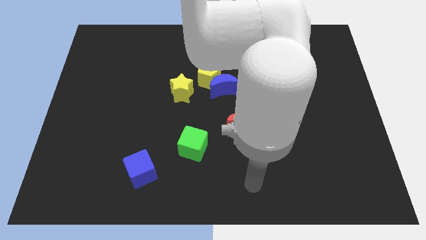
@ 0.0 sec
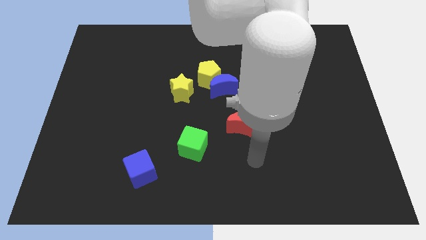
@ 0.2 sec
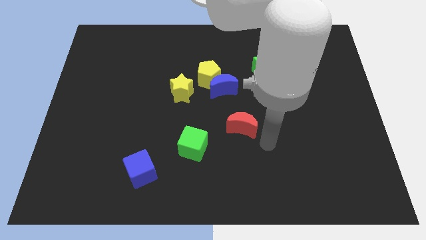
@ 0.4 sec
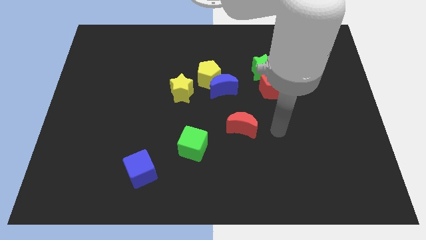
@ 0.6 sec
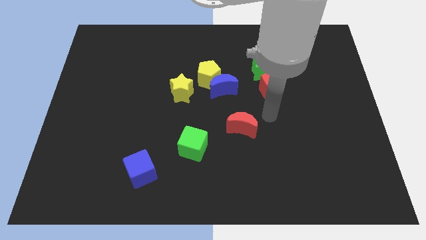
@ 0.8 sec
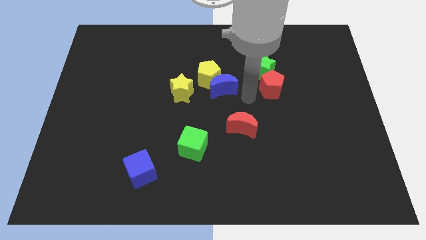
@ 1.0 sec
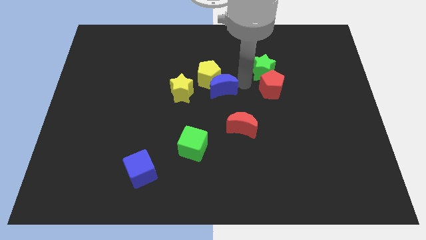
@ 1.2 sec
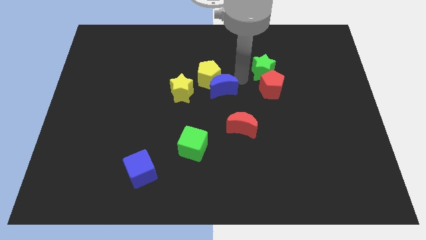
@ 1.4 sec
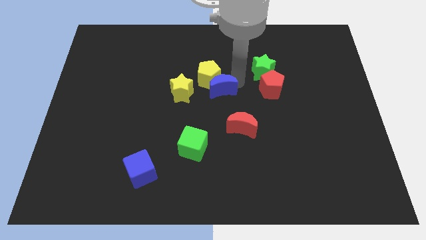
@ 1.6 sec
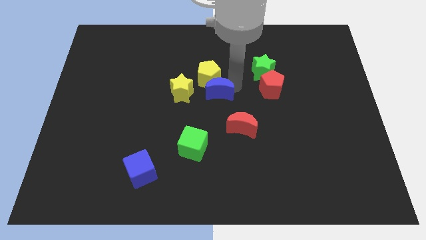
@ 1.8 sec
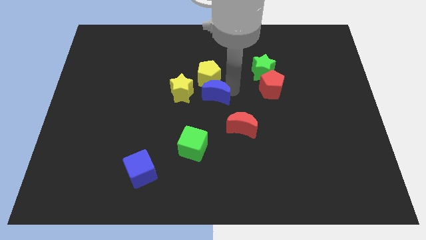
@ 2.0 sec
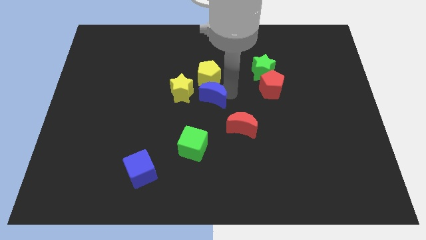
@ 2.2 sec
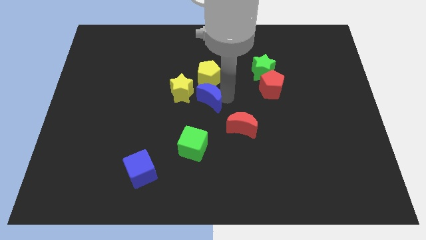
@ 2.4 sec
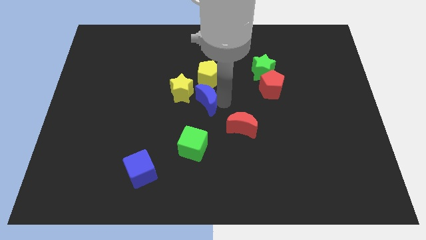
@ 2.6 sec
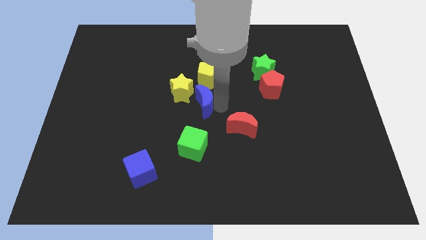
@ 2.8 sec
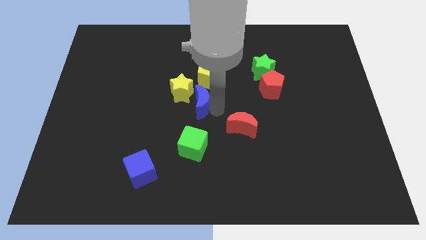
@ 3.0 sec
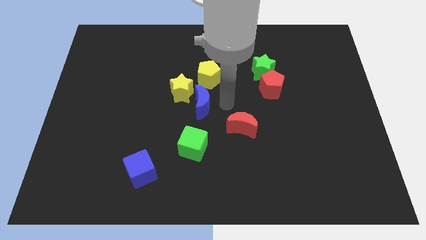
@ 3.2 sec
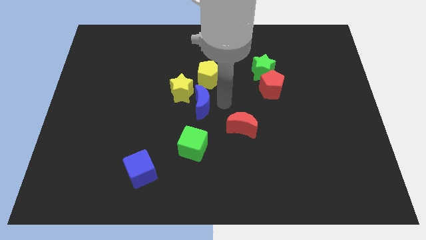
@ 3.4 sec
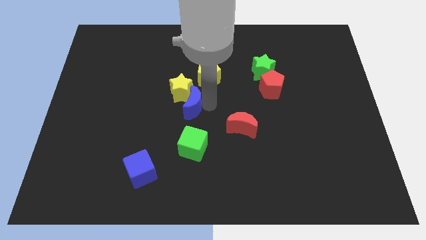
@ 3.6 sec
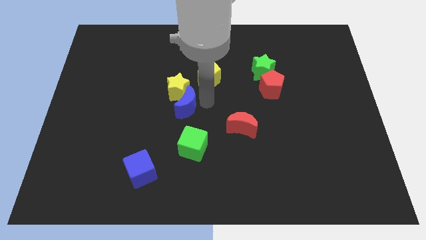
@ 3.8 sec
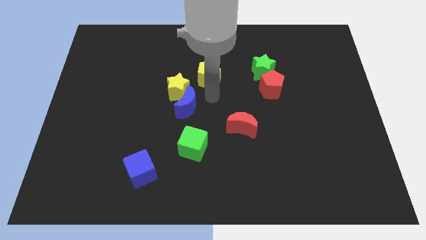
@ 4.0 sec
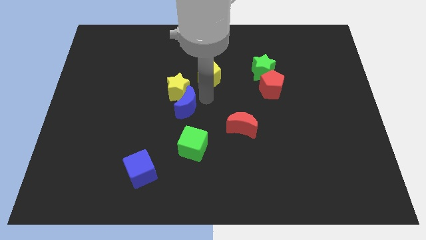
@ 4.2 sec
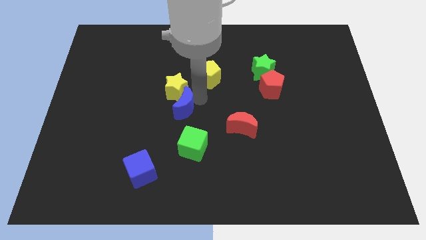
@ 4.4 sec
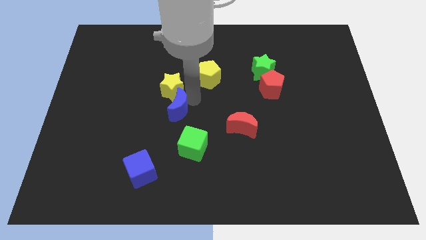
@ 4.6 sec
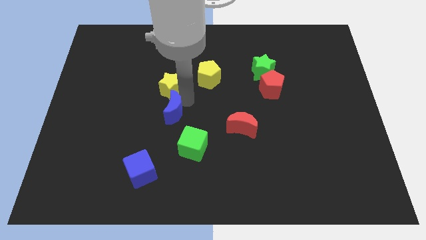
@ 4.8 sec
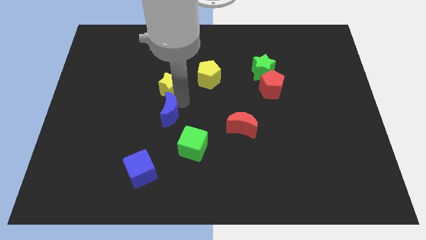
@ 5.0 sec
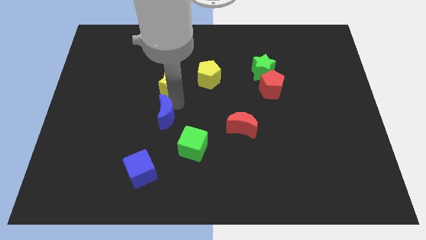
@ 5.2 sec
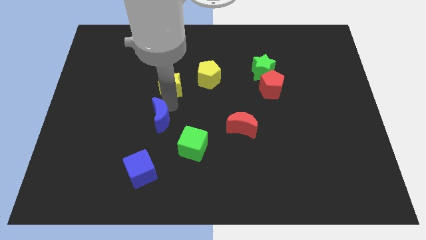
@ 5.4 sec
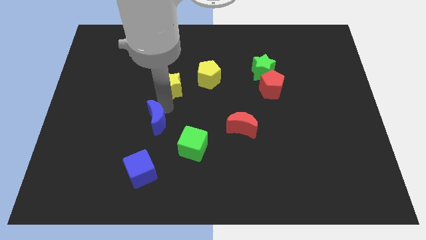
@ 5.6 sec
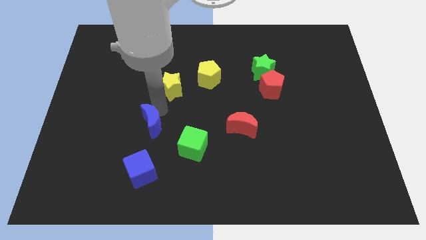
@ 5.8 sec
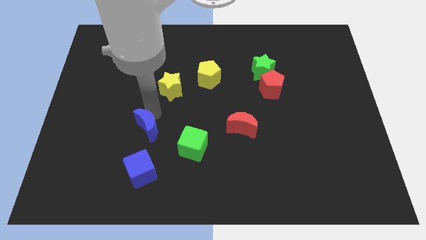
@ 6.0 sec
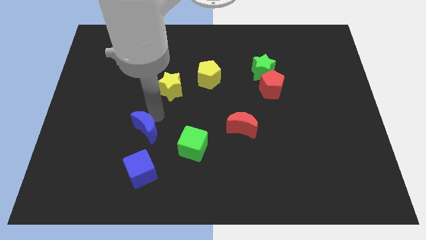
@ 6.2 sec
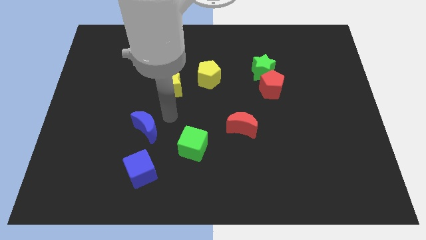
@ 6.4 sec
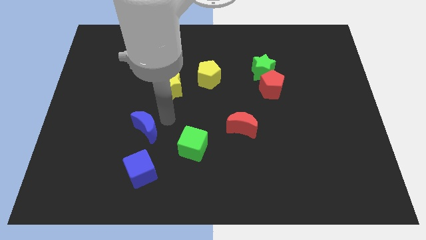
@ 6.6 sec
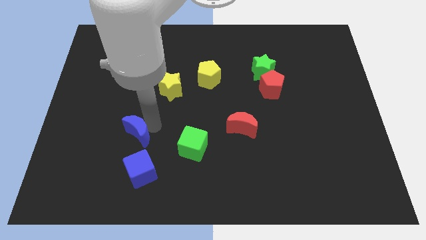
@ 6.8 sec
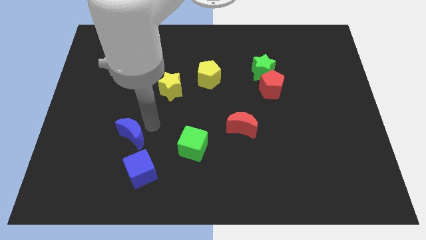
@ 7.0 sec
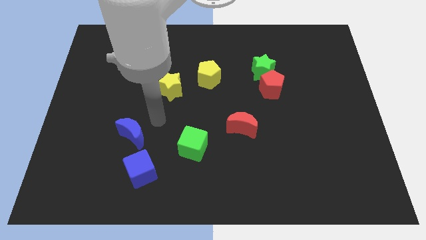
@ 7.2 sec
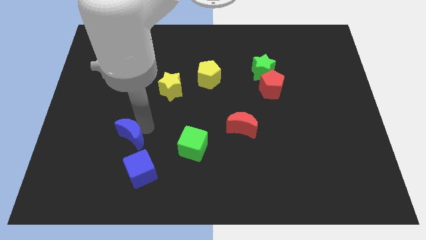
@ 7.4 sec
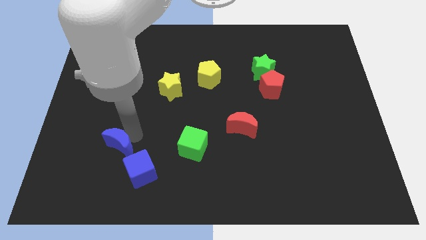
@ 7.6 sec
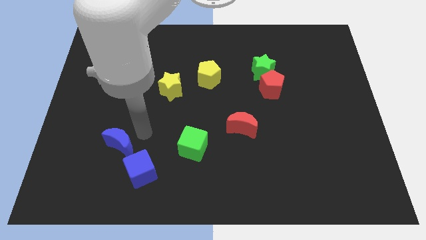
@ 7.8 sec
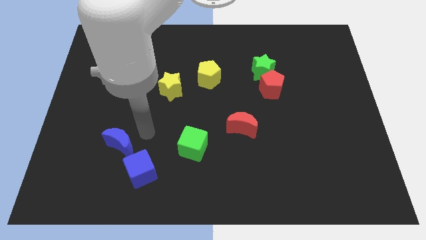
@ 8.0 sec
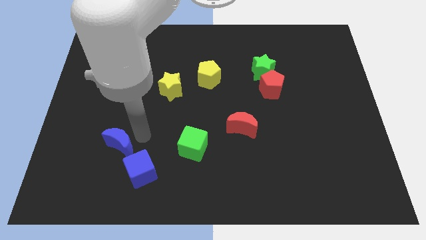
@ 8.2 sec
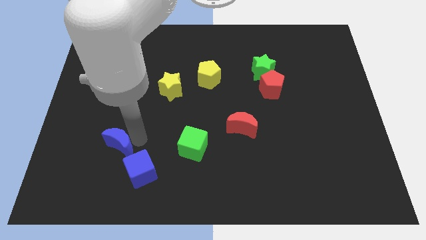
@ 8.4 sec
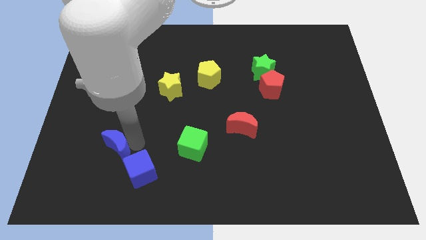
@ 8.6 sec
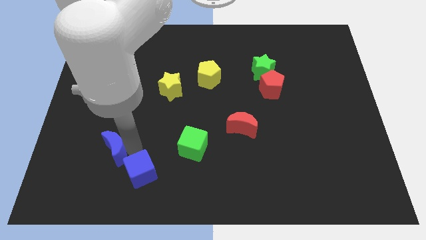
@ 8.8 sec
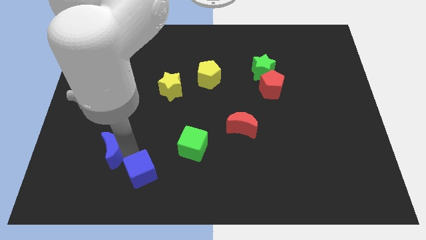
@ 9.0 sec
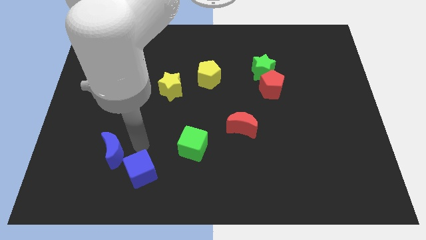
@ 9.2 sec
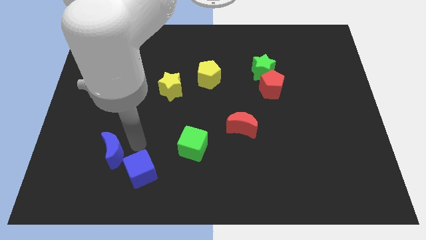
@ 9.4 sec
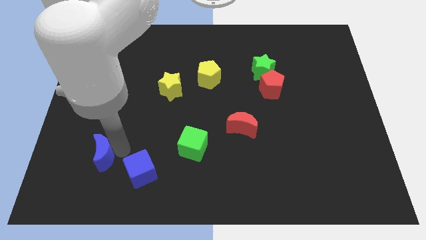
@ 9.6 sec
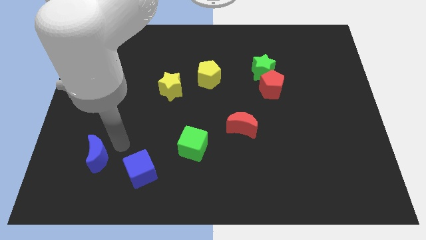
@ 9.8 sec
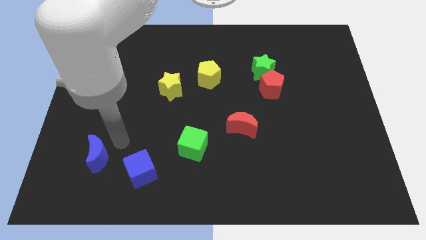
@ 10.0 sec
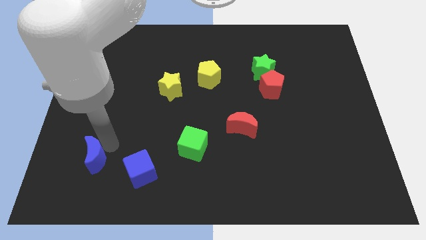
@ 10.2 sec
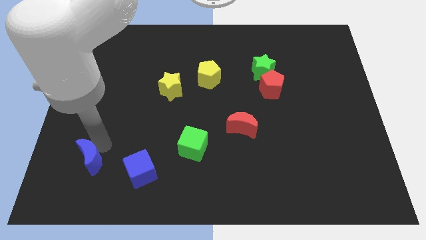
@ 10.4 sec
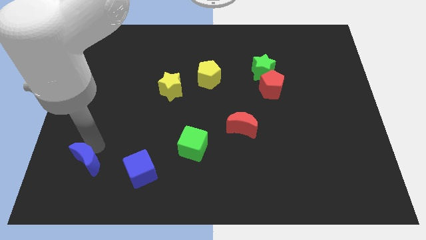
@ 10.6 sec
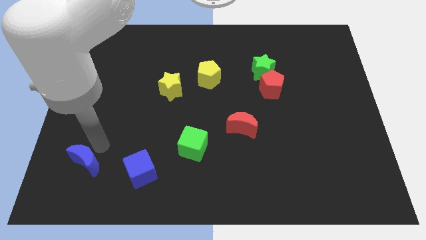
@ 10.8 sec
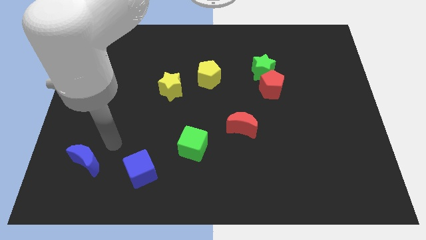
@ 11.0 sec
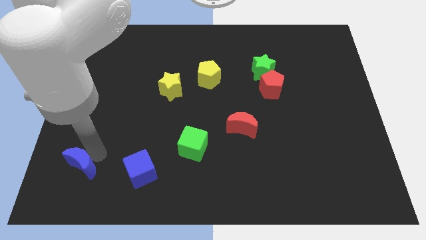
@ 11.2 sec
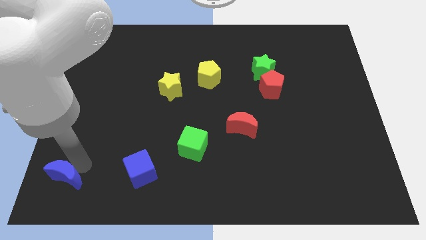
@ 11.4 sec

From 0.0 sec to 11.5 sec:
move the blue moon to the bottom left corner

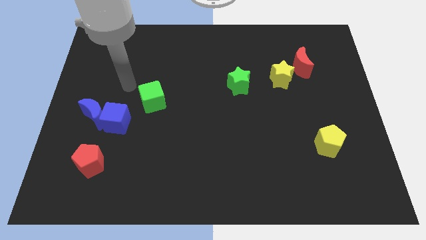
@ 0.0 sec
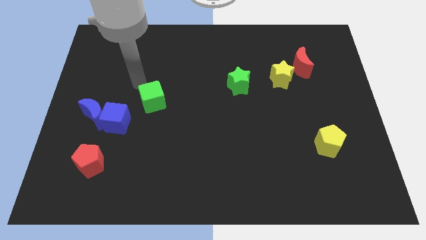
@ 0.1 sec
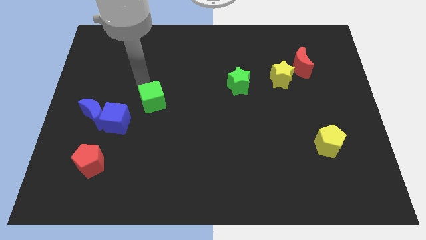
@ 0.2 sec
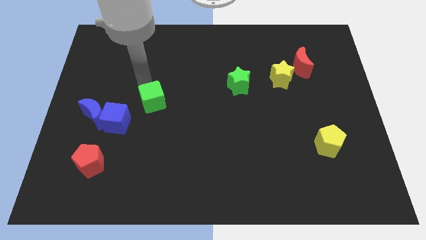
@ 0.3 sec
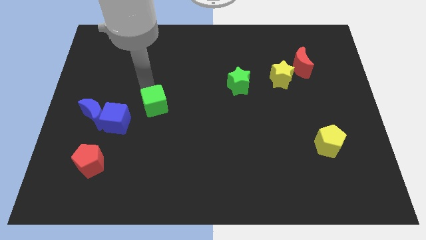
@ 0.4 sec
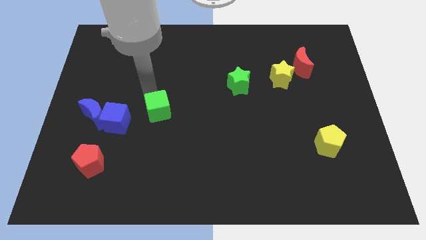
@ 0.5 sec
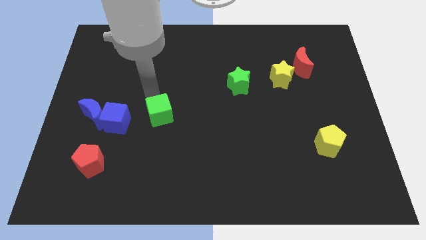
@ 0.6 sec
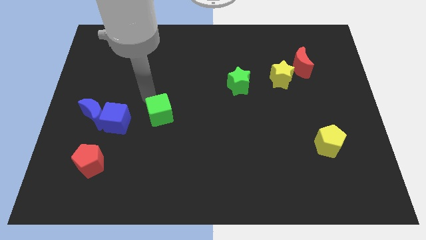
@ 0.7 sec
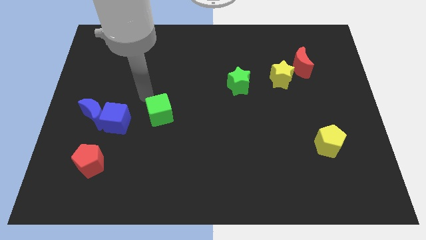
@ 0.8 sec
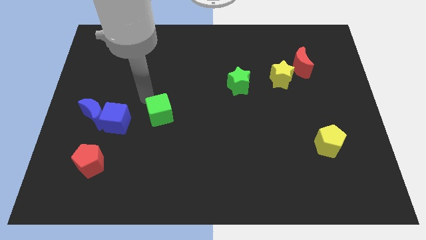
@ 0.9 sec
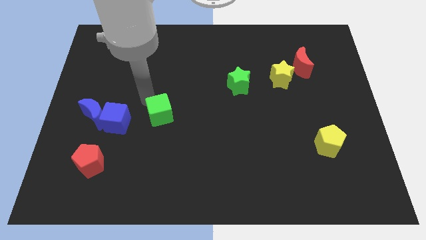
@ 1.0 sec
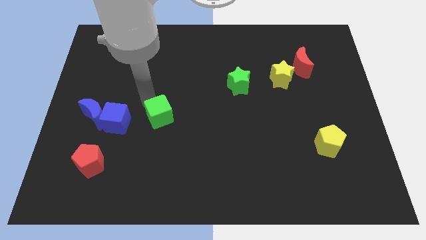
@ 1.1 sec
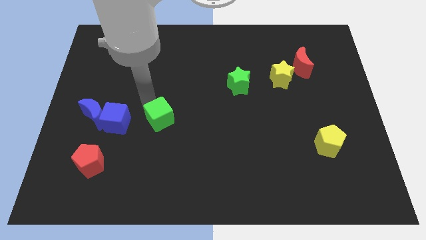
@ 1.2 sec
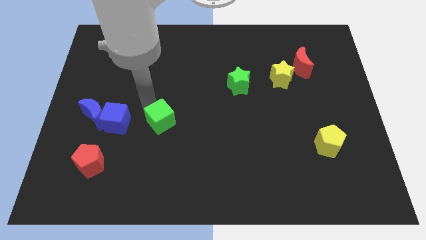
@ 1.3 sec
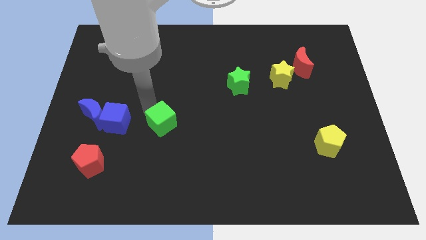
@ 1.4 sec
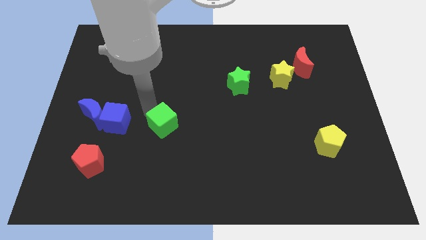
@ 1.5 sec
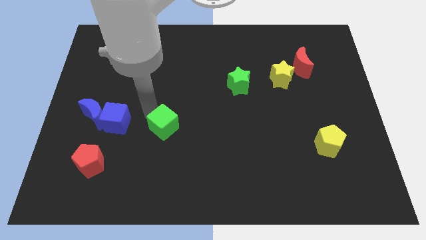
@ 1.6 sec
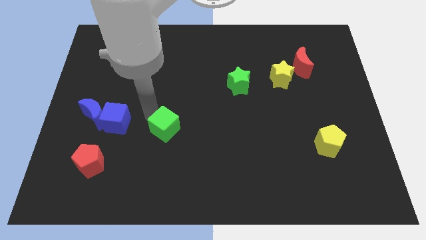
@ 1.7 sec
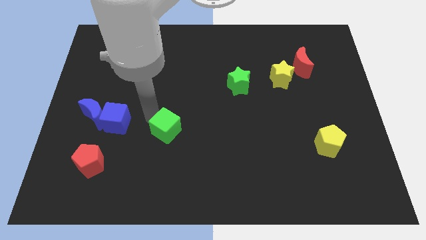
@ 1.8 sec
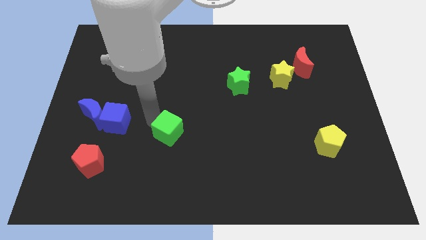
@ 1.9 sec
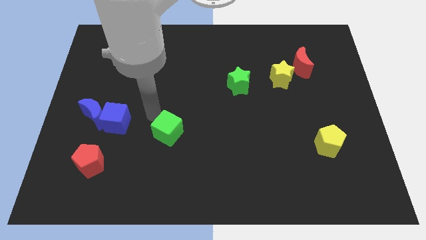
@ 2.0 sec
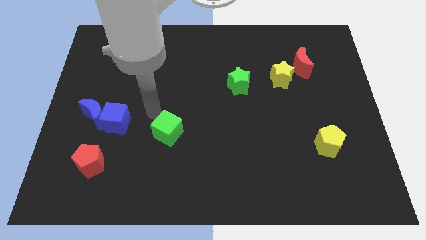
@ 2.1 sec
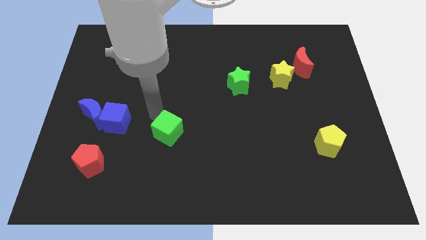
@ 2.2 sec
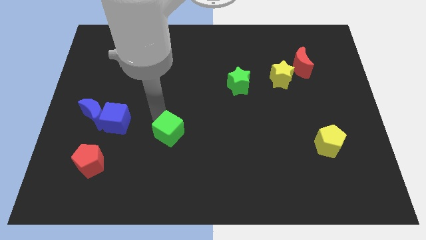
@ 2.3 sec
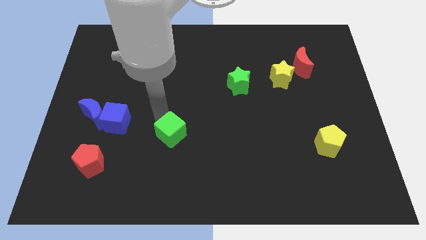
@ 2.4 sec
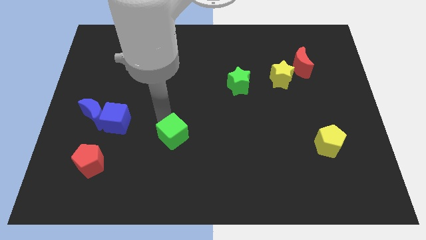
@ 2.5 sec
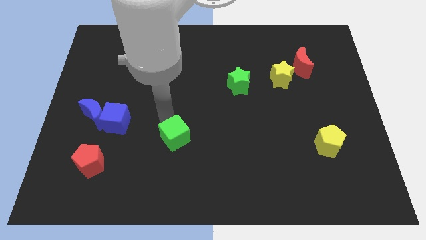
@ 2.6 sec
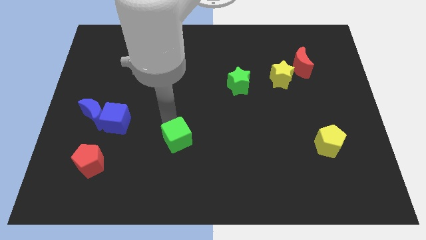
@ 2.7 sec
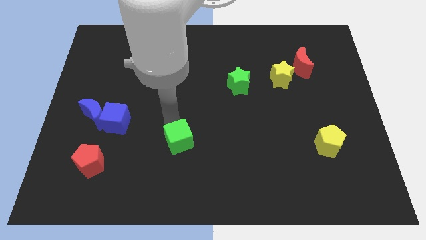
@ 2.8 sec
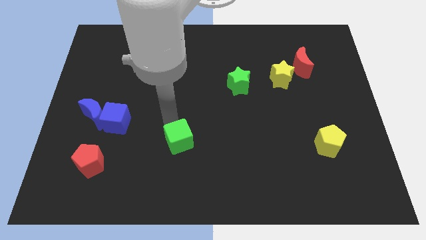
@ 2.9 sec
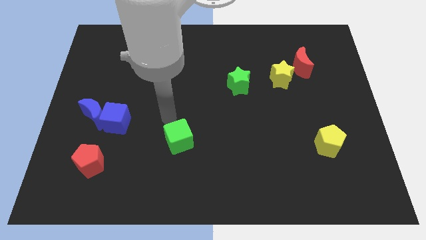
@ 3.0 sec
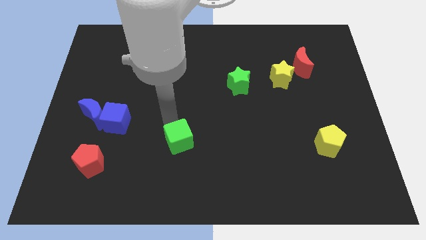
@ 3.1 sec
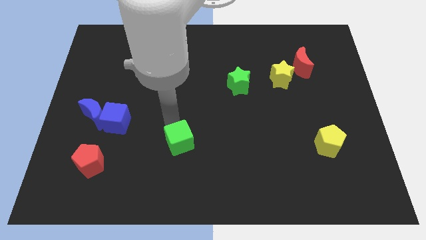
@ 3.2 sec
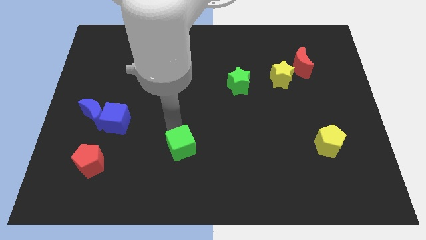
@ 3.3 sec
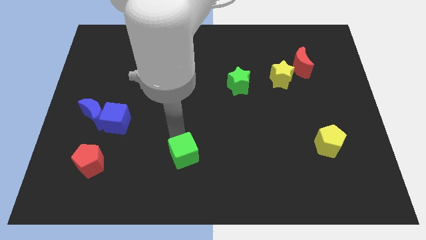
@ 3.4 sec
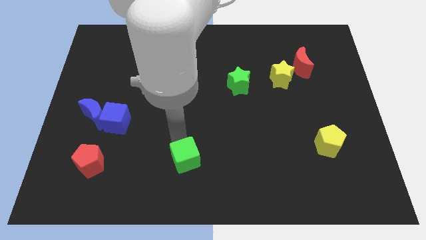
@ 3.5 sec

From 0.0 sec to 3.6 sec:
move the green cube to the bottom
